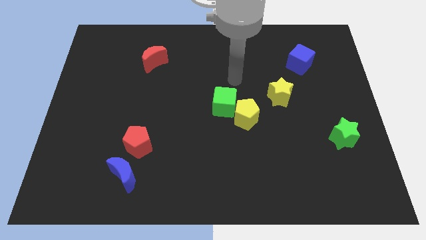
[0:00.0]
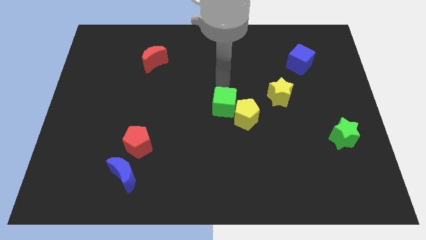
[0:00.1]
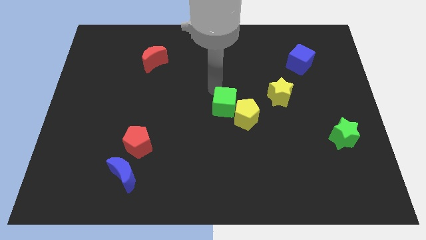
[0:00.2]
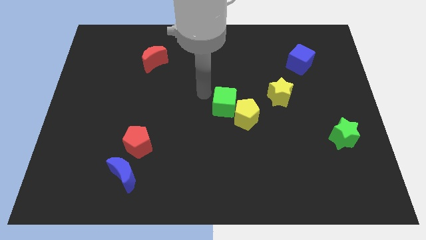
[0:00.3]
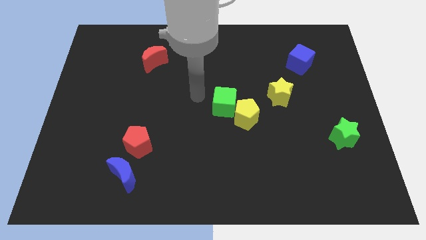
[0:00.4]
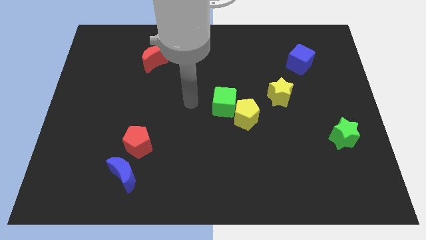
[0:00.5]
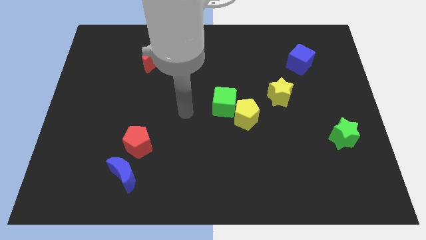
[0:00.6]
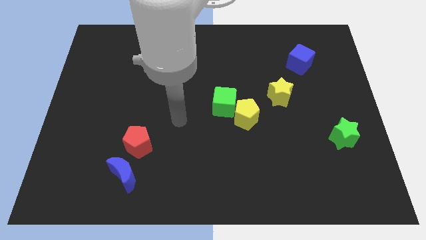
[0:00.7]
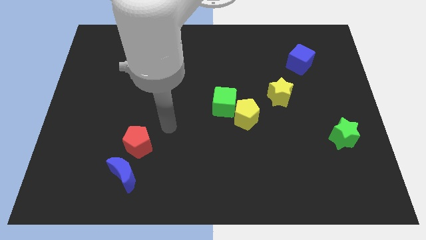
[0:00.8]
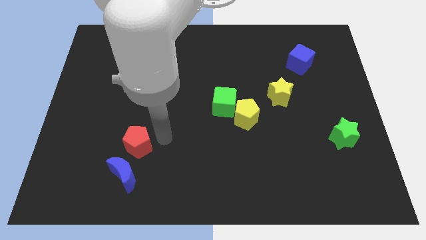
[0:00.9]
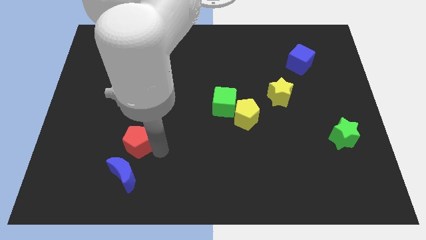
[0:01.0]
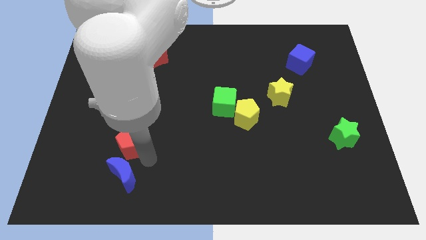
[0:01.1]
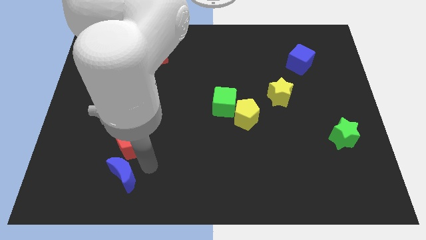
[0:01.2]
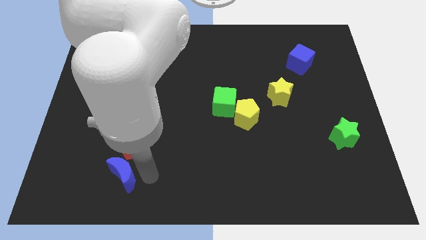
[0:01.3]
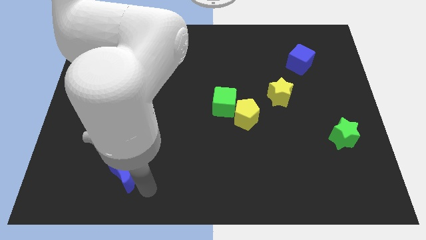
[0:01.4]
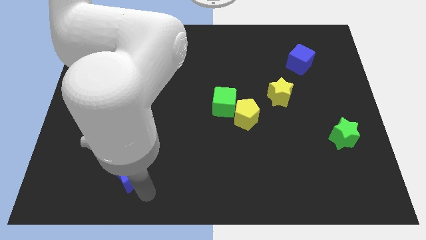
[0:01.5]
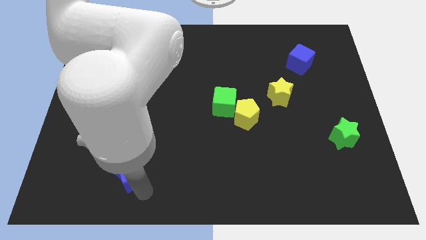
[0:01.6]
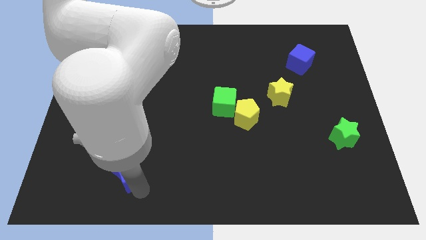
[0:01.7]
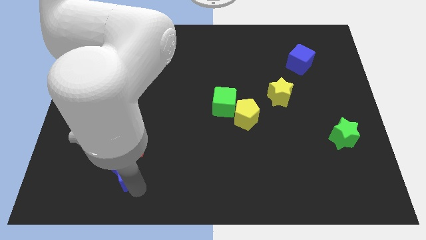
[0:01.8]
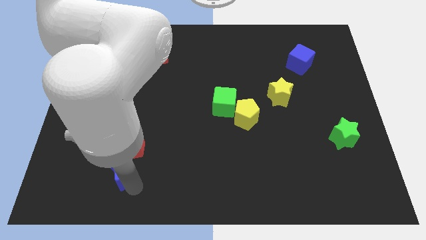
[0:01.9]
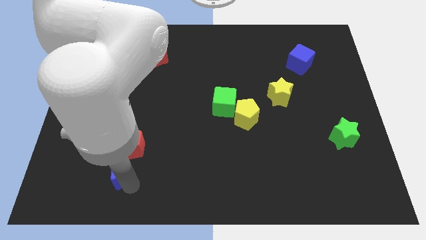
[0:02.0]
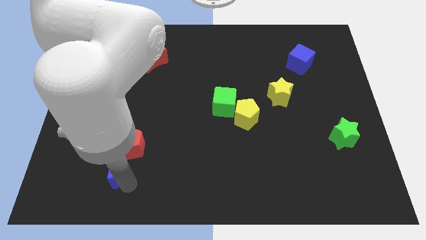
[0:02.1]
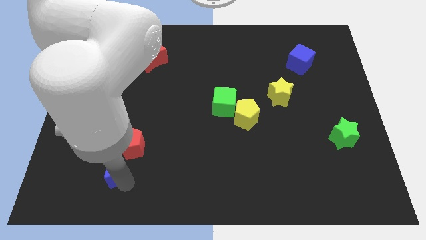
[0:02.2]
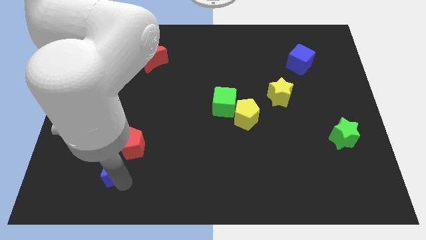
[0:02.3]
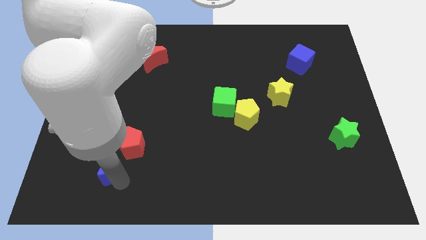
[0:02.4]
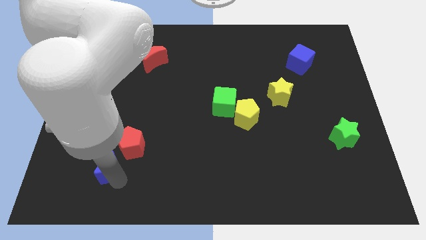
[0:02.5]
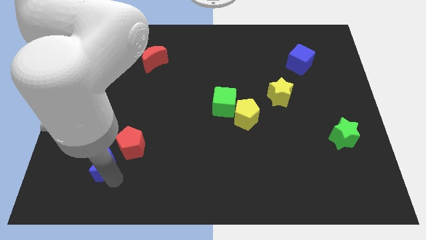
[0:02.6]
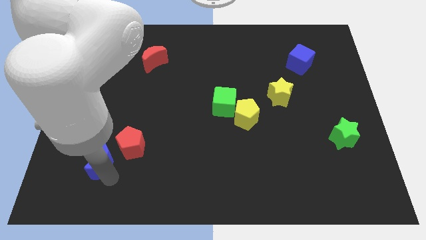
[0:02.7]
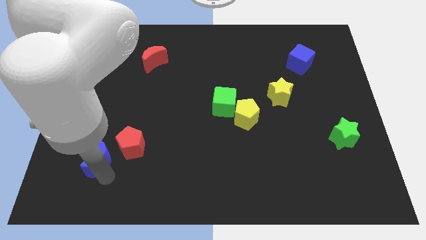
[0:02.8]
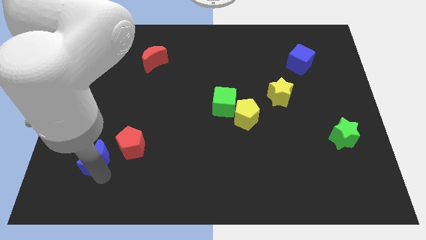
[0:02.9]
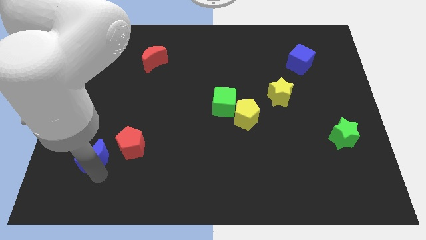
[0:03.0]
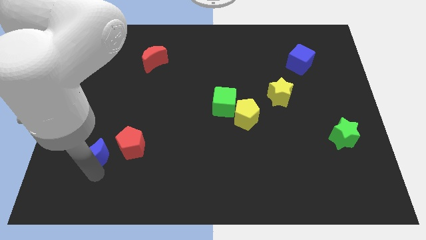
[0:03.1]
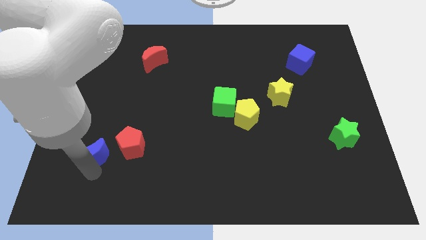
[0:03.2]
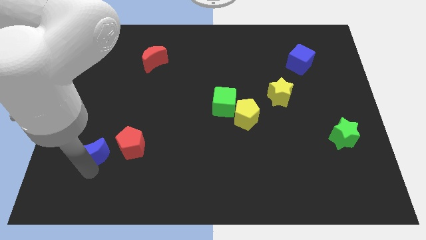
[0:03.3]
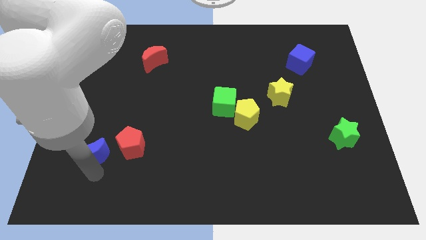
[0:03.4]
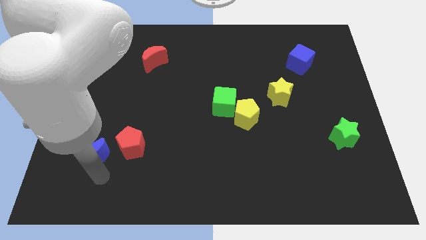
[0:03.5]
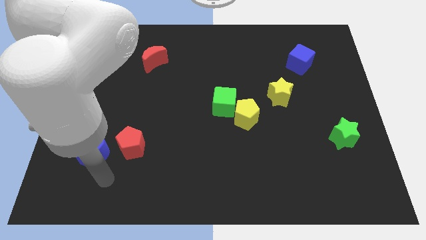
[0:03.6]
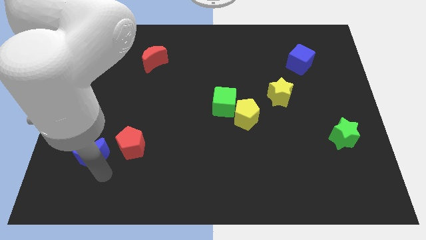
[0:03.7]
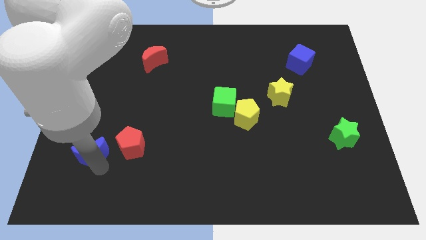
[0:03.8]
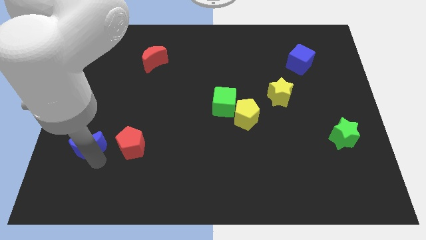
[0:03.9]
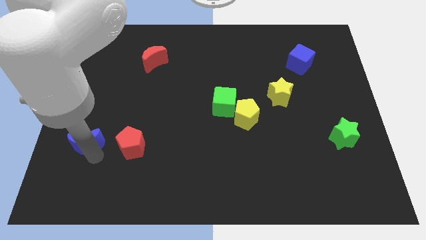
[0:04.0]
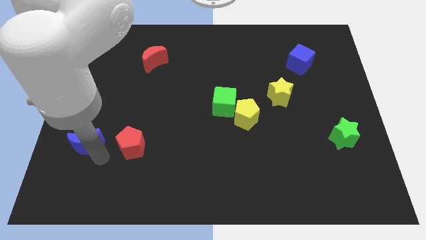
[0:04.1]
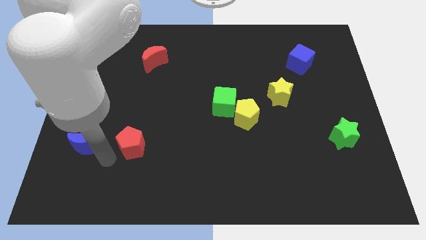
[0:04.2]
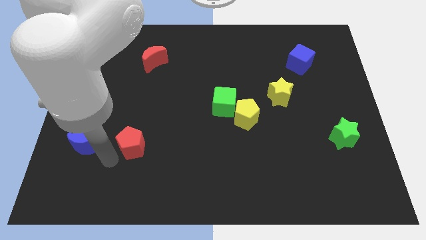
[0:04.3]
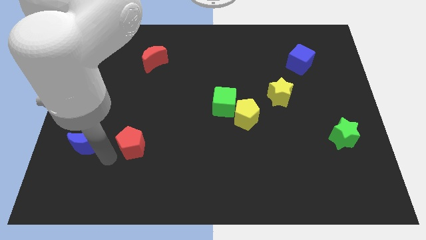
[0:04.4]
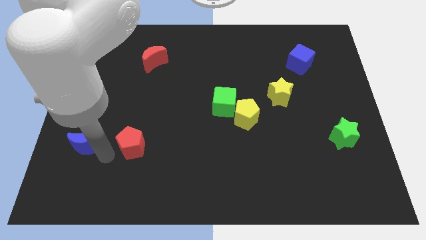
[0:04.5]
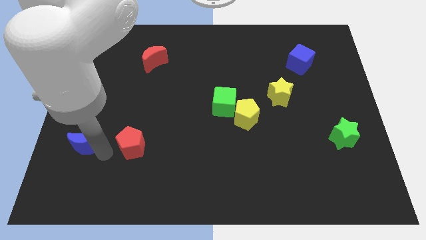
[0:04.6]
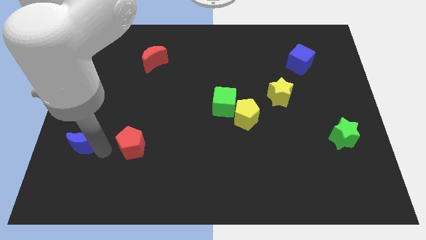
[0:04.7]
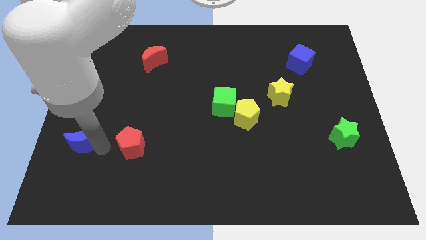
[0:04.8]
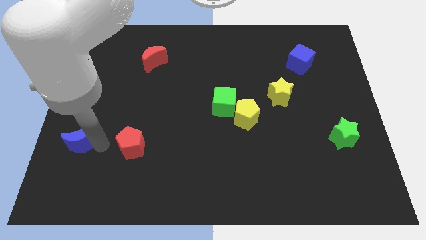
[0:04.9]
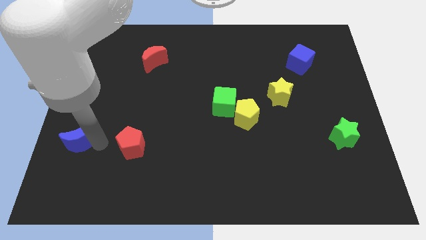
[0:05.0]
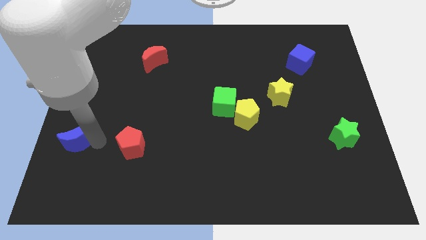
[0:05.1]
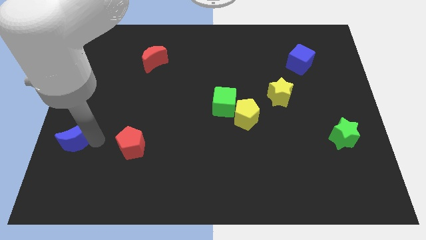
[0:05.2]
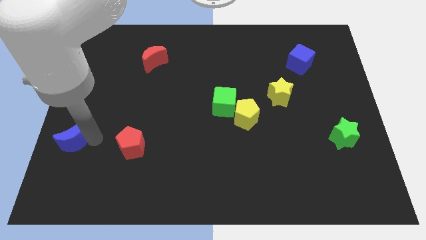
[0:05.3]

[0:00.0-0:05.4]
move the blue moon to the left side

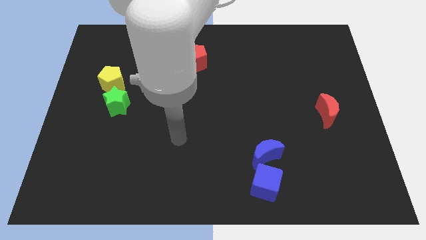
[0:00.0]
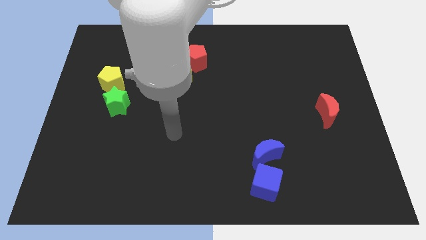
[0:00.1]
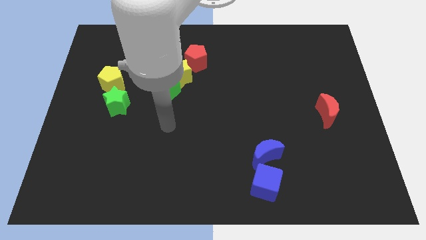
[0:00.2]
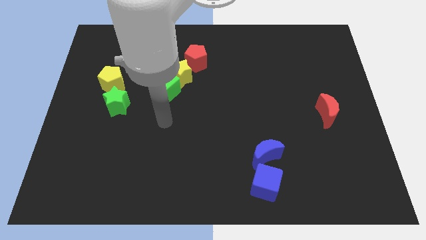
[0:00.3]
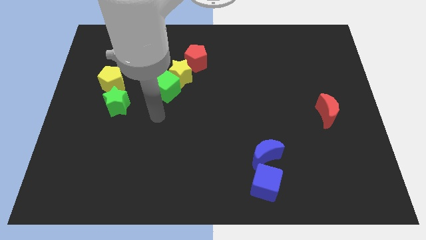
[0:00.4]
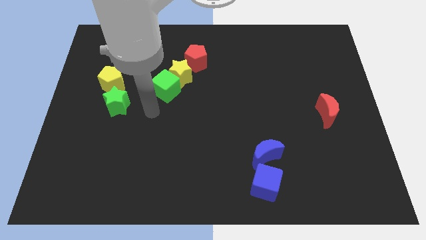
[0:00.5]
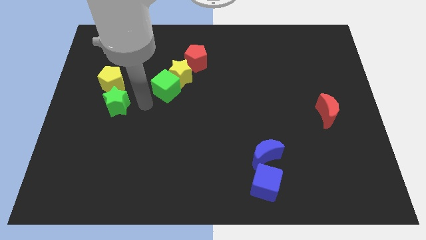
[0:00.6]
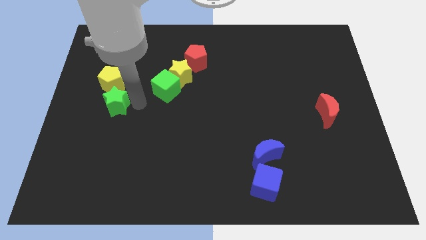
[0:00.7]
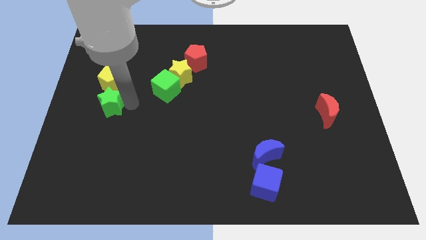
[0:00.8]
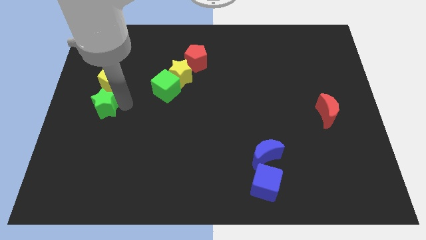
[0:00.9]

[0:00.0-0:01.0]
move the green star to the left side of the board

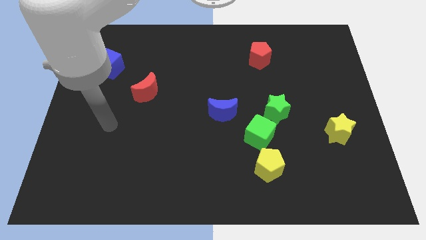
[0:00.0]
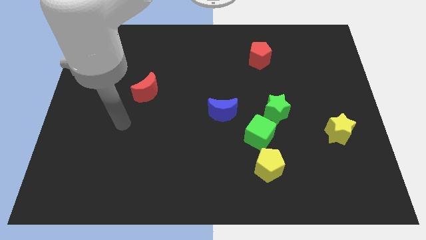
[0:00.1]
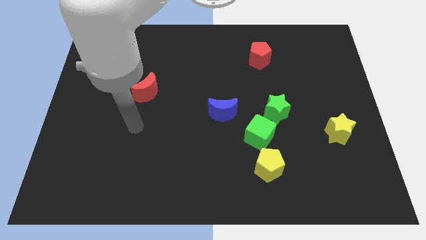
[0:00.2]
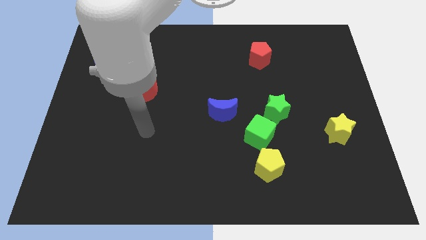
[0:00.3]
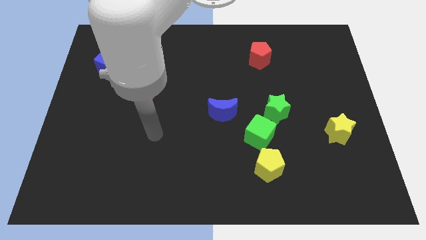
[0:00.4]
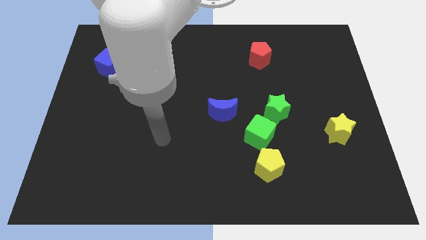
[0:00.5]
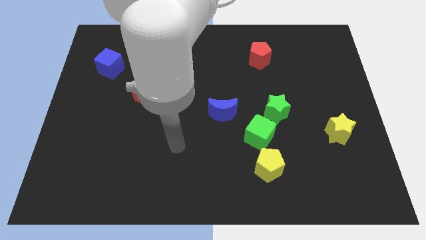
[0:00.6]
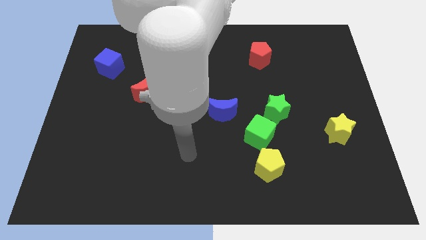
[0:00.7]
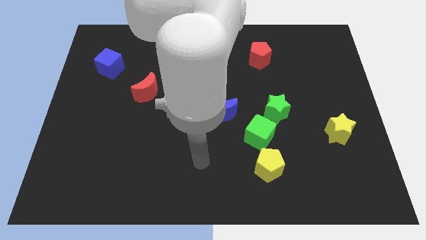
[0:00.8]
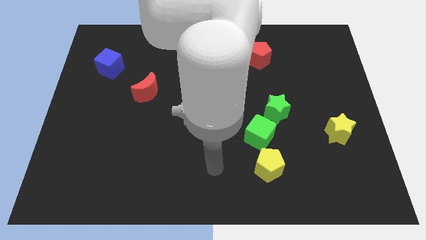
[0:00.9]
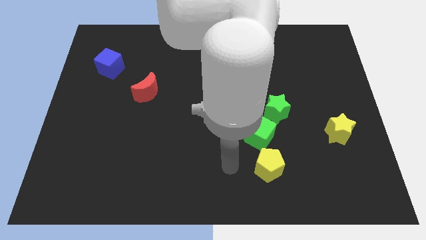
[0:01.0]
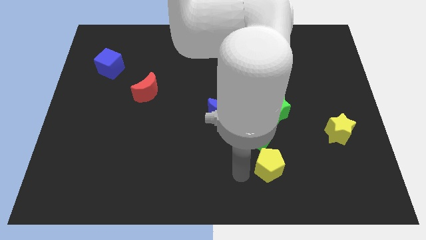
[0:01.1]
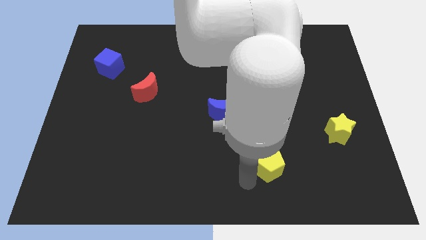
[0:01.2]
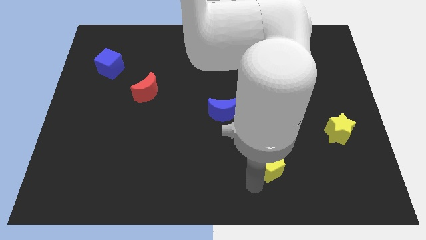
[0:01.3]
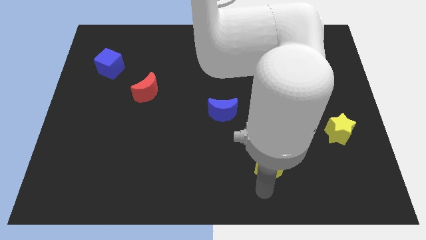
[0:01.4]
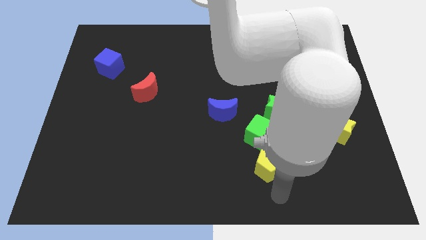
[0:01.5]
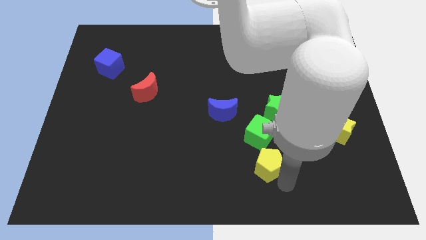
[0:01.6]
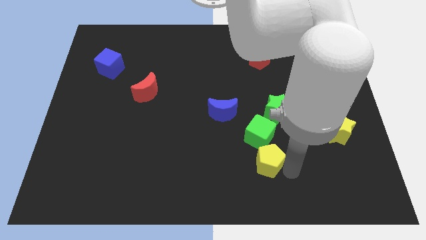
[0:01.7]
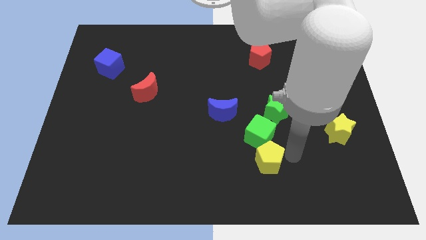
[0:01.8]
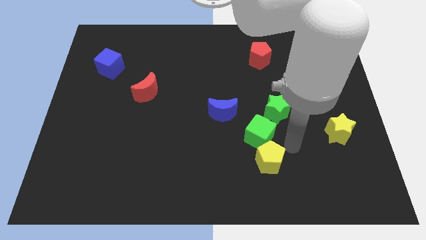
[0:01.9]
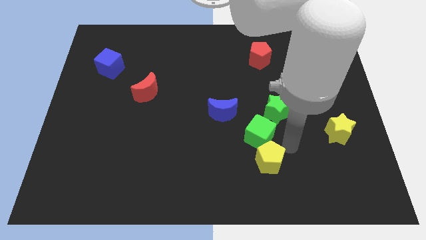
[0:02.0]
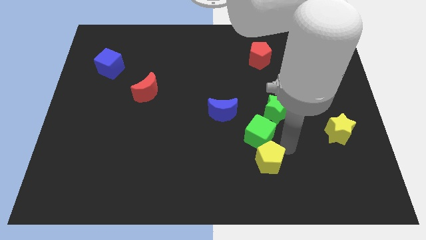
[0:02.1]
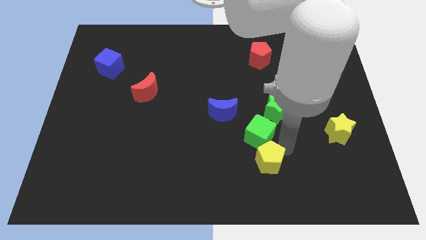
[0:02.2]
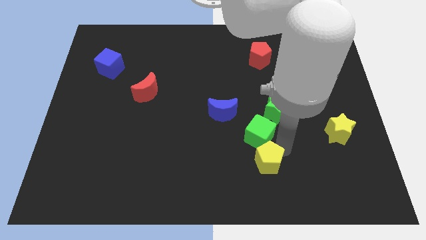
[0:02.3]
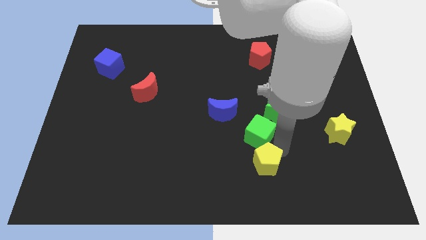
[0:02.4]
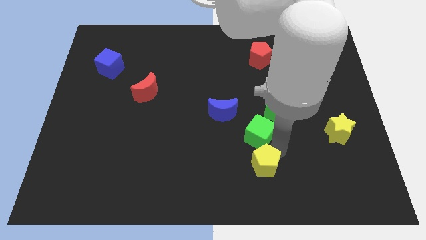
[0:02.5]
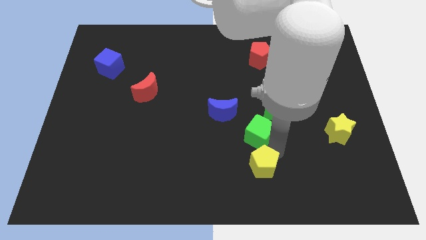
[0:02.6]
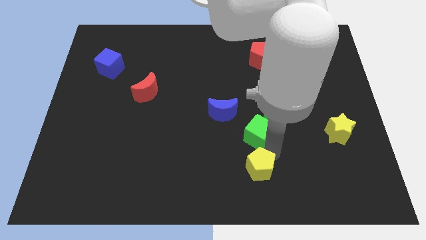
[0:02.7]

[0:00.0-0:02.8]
slide the yellow pentagon to the bottom
